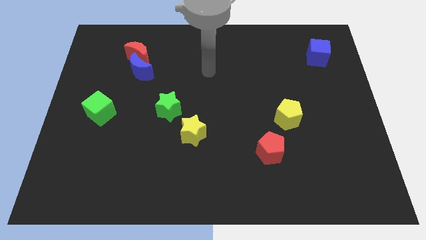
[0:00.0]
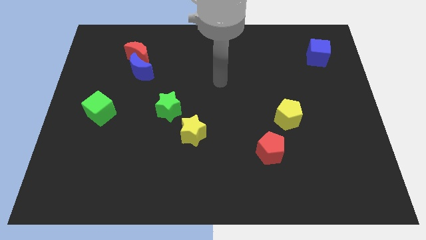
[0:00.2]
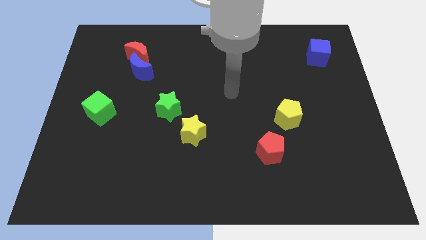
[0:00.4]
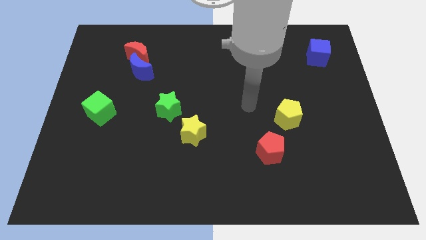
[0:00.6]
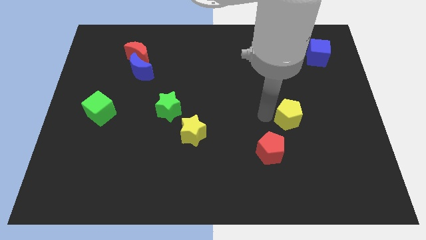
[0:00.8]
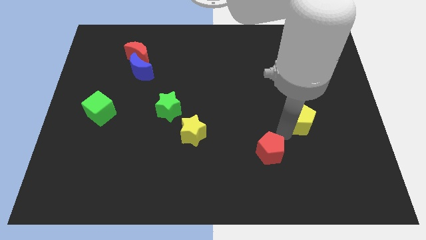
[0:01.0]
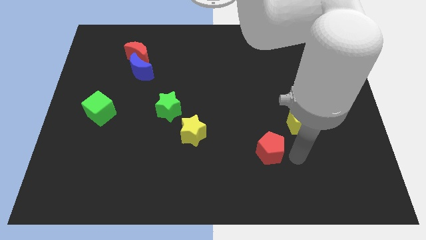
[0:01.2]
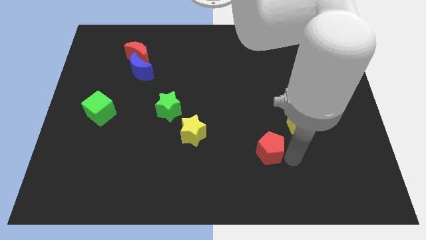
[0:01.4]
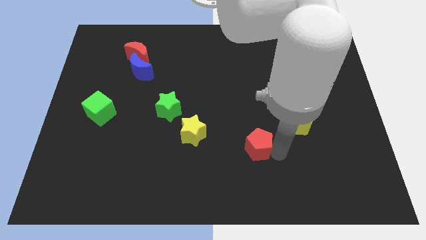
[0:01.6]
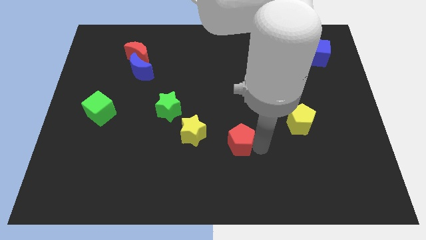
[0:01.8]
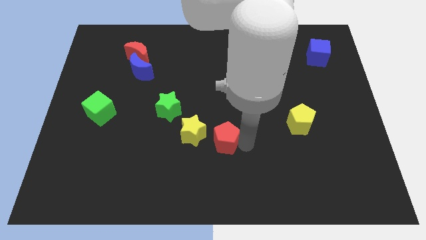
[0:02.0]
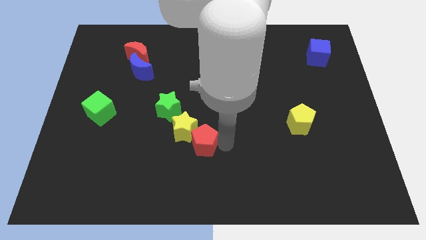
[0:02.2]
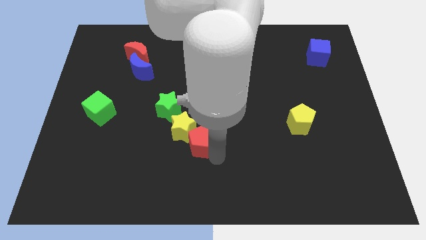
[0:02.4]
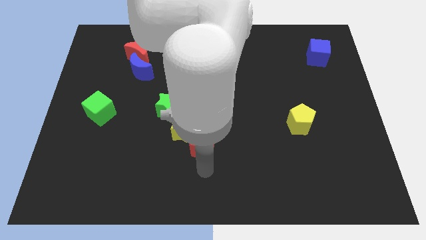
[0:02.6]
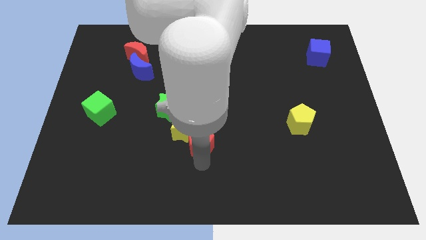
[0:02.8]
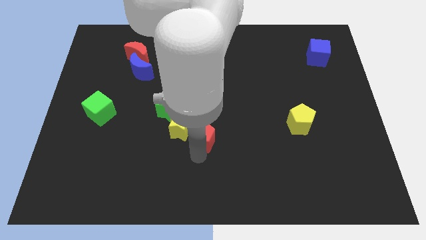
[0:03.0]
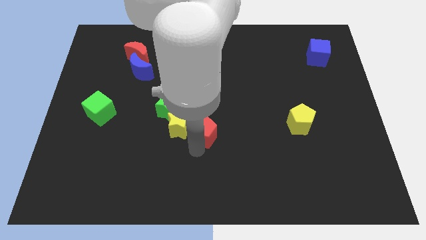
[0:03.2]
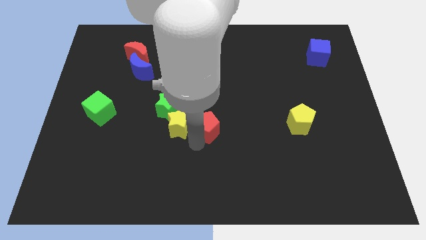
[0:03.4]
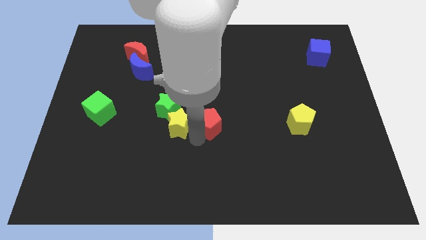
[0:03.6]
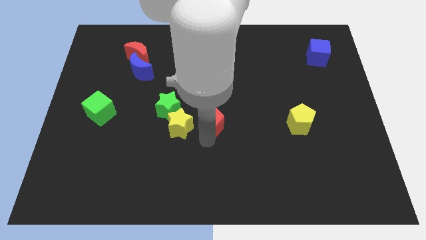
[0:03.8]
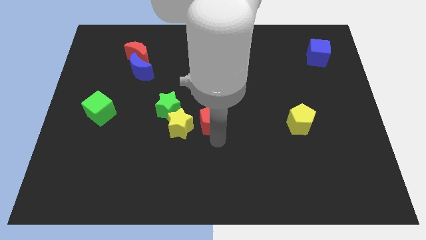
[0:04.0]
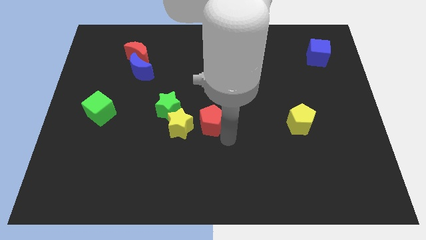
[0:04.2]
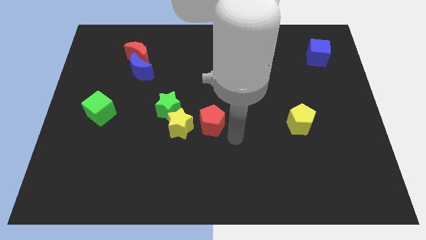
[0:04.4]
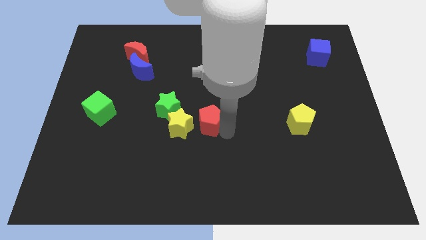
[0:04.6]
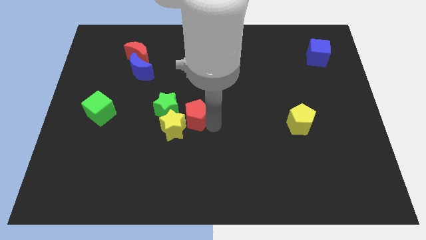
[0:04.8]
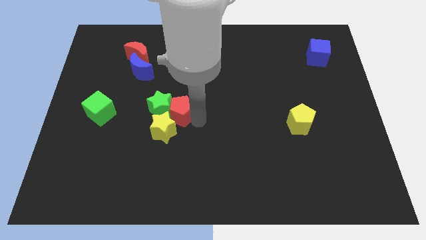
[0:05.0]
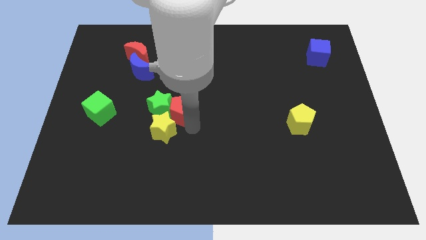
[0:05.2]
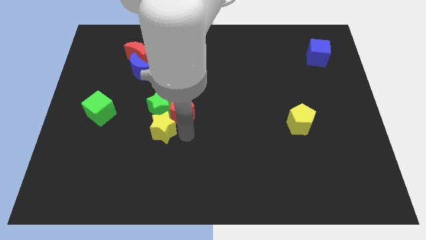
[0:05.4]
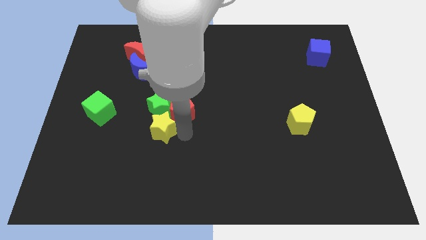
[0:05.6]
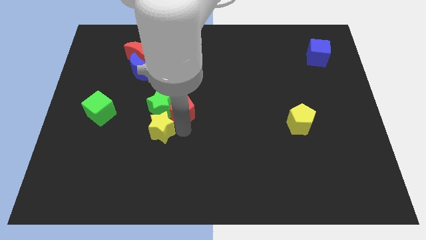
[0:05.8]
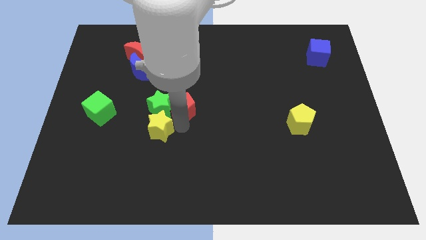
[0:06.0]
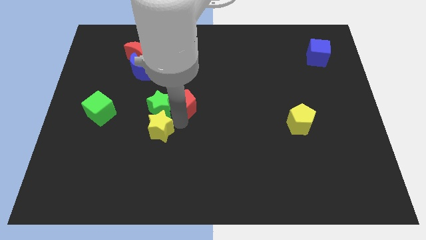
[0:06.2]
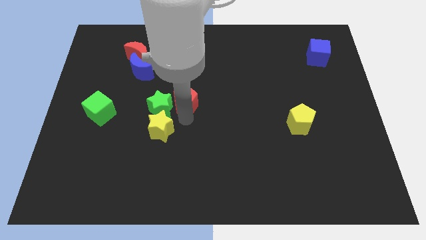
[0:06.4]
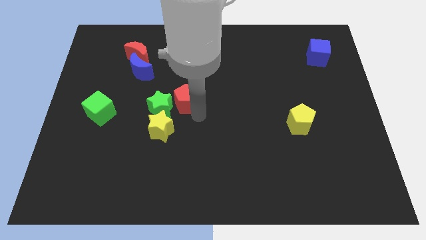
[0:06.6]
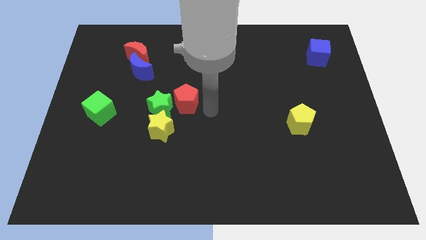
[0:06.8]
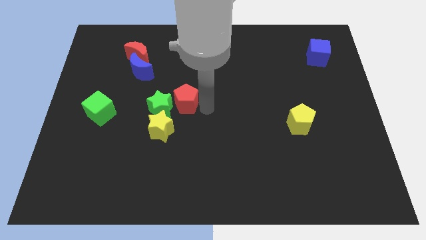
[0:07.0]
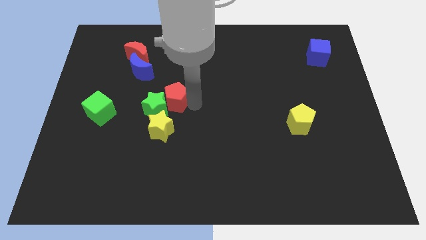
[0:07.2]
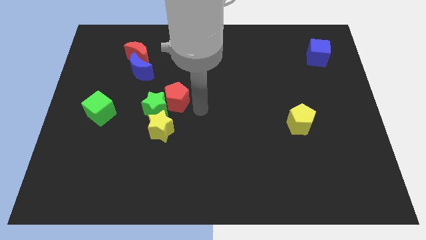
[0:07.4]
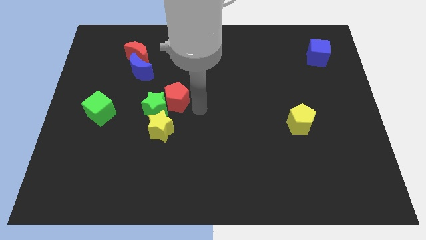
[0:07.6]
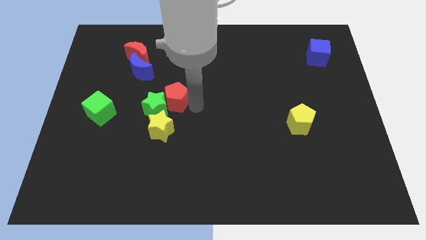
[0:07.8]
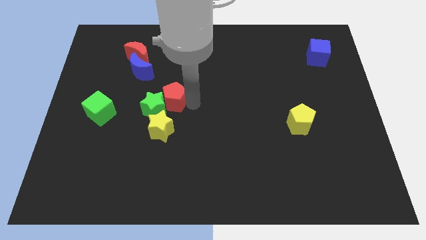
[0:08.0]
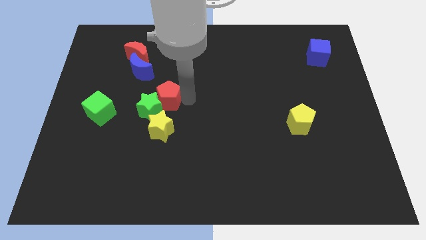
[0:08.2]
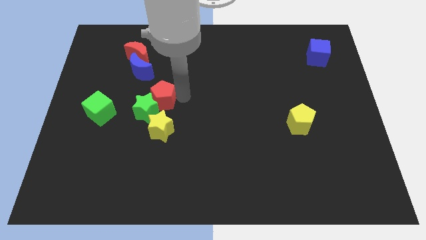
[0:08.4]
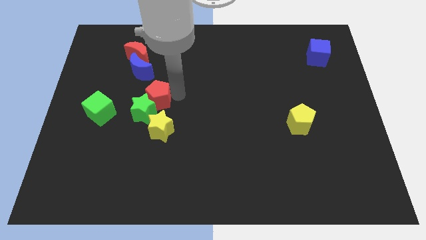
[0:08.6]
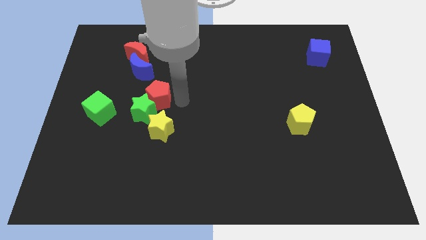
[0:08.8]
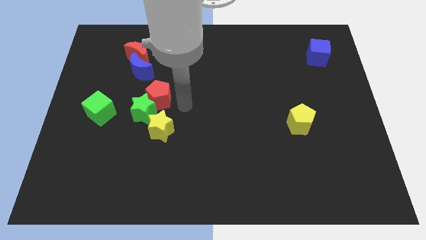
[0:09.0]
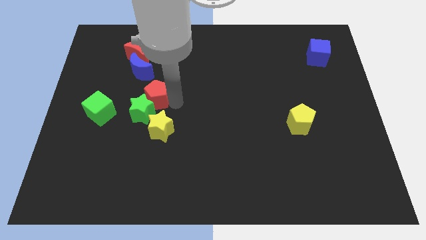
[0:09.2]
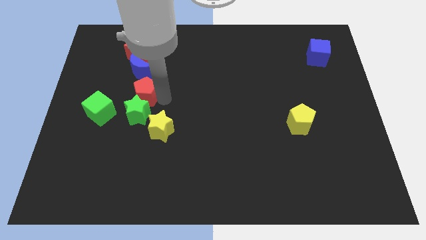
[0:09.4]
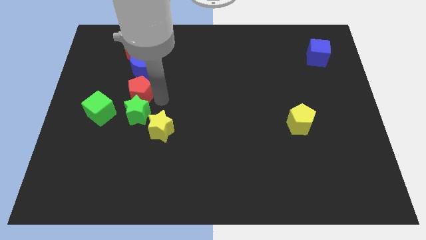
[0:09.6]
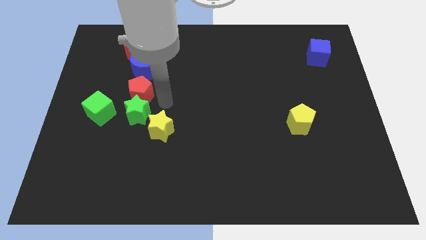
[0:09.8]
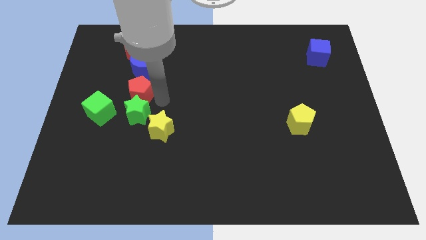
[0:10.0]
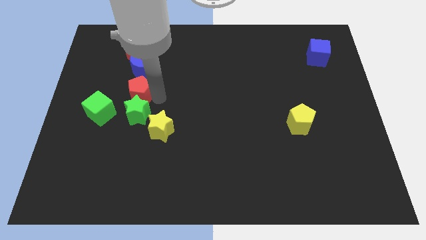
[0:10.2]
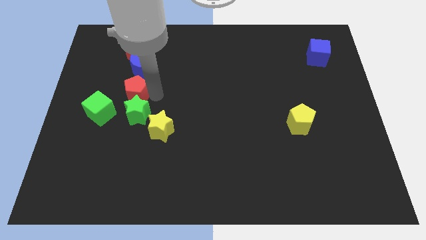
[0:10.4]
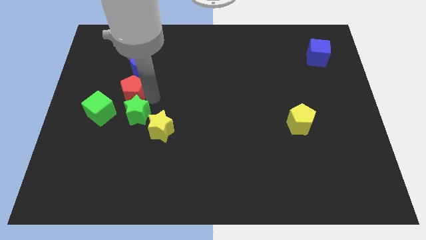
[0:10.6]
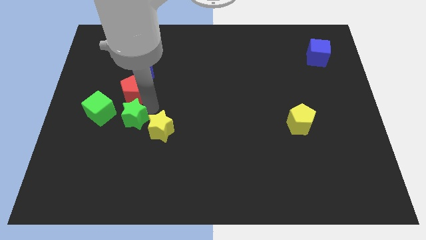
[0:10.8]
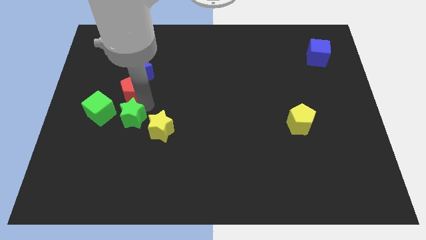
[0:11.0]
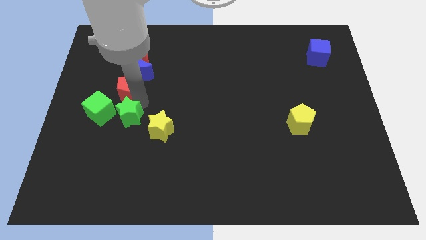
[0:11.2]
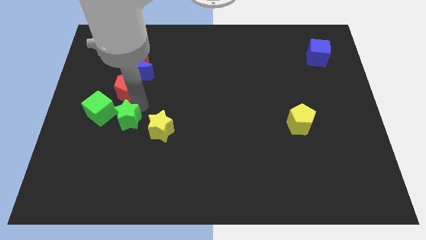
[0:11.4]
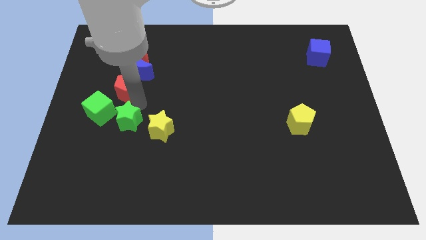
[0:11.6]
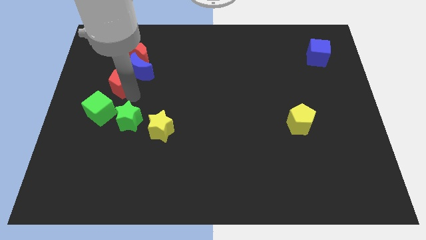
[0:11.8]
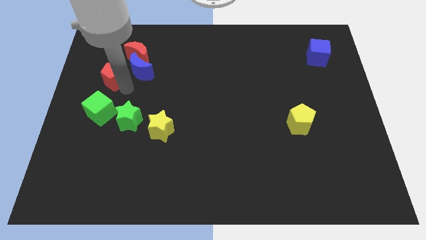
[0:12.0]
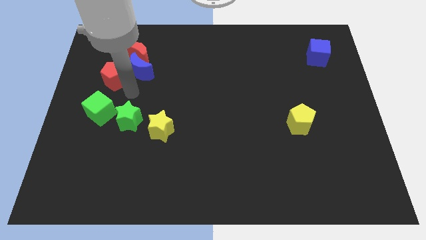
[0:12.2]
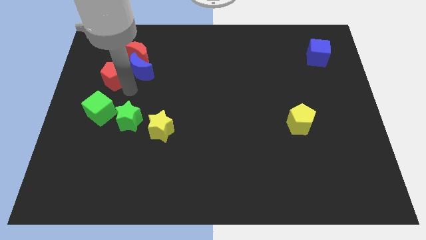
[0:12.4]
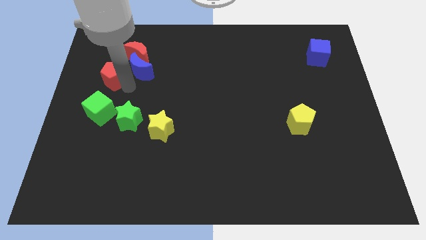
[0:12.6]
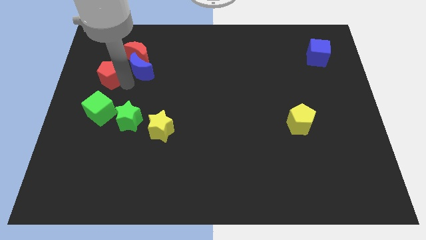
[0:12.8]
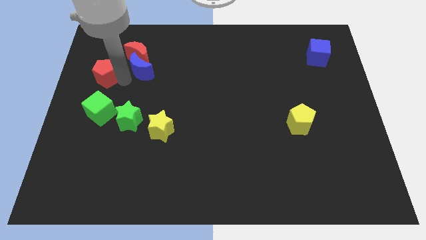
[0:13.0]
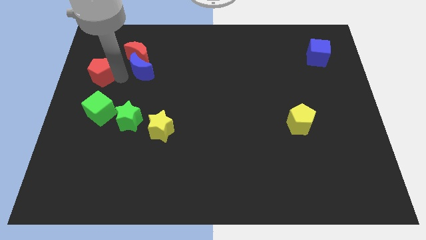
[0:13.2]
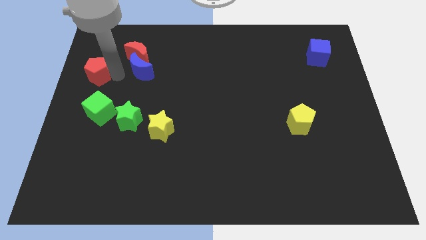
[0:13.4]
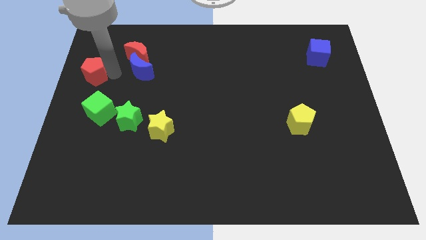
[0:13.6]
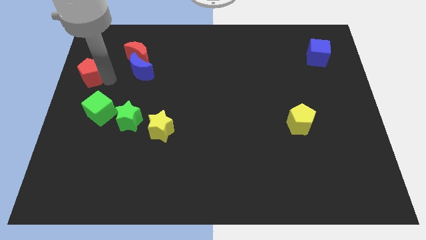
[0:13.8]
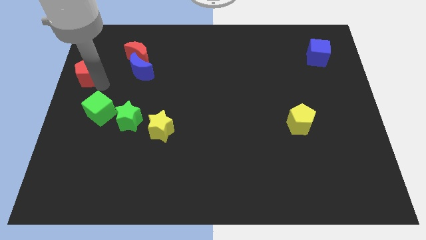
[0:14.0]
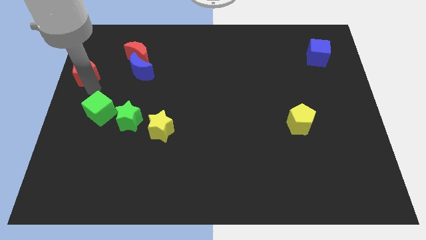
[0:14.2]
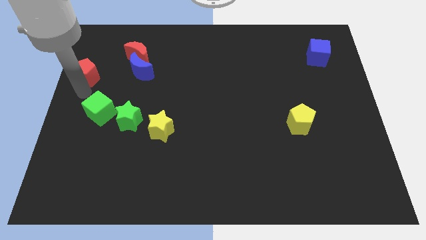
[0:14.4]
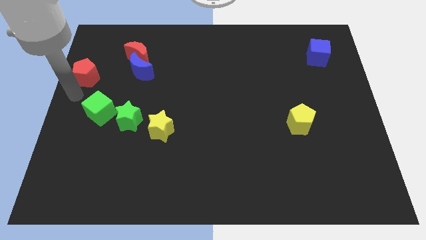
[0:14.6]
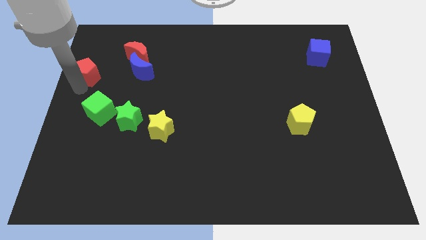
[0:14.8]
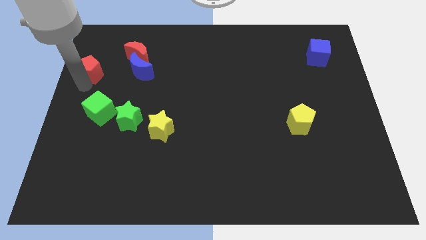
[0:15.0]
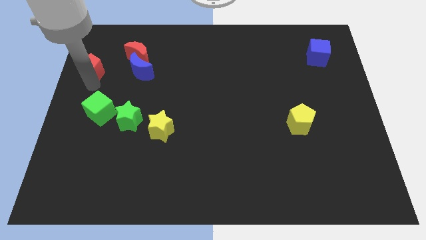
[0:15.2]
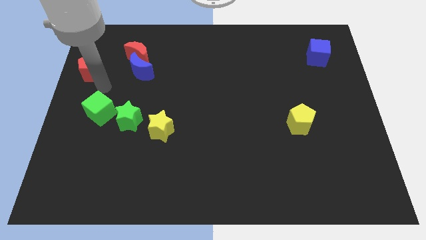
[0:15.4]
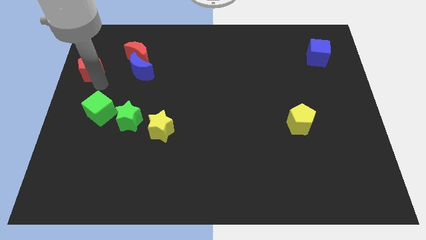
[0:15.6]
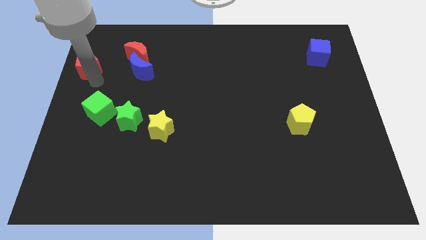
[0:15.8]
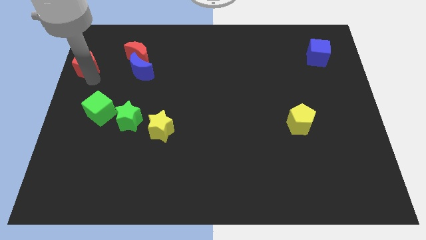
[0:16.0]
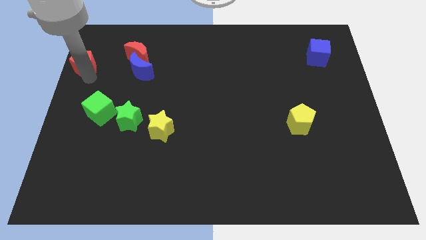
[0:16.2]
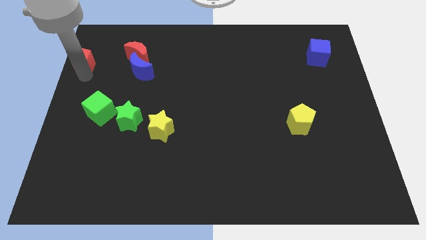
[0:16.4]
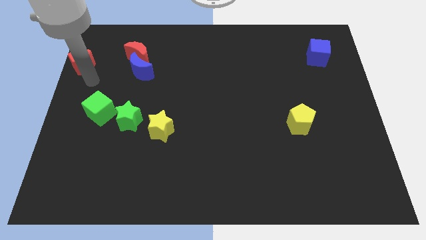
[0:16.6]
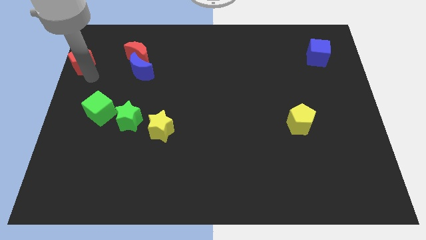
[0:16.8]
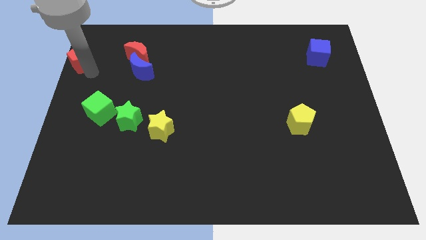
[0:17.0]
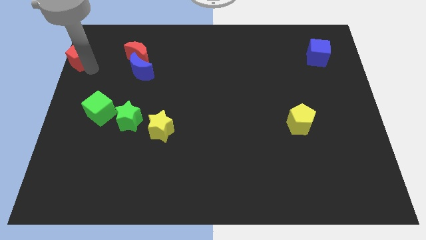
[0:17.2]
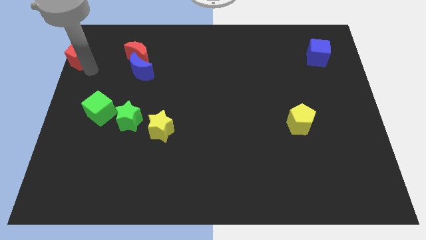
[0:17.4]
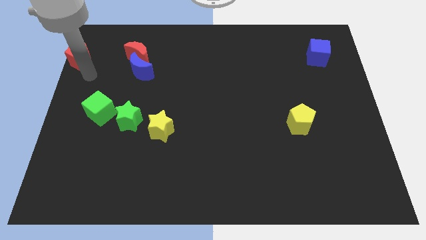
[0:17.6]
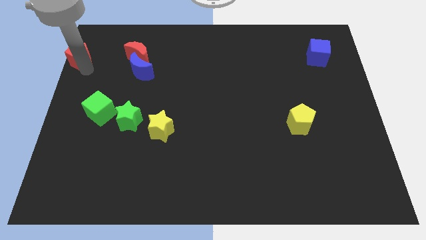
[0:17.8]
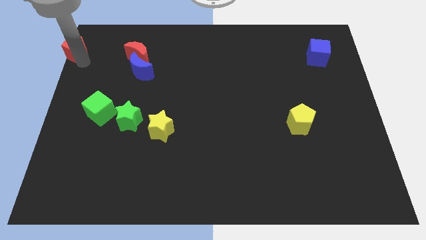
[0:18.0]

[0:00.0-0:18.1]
slide the red pentagon to the top left corner
